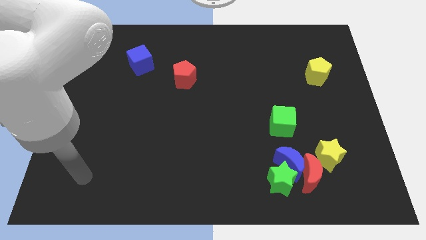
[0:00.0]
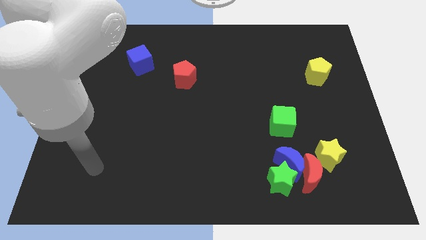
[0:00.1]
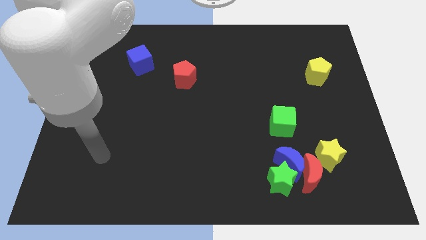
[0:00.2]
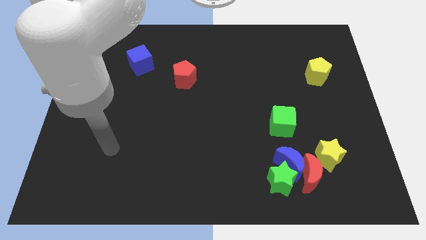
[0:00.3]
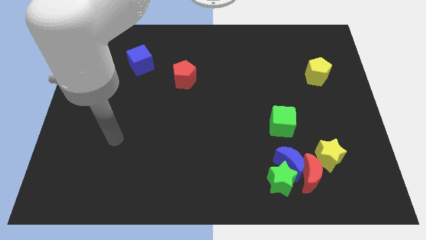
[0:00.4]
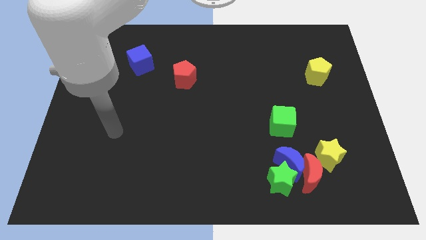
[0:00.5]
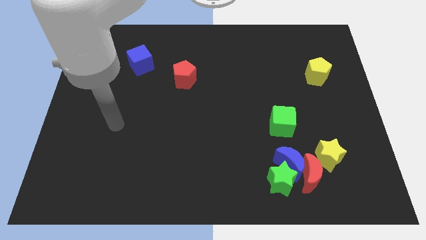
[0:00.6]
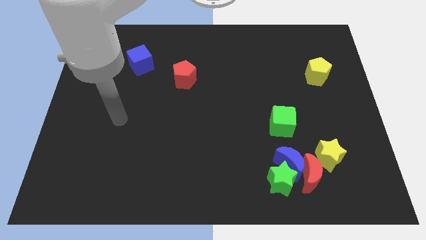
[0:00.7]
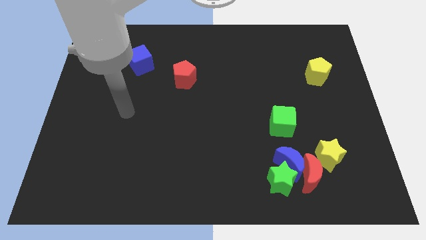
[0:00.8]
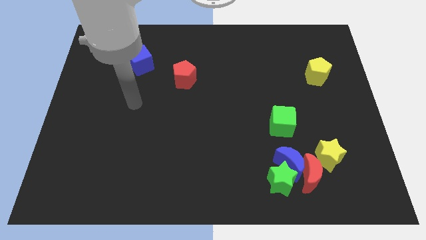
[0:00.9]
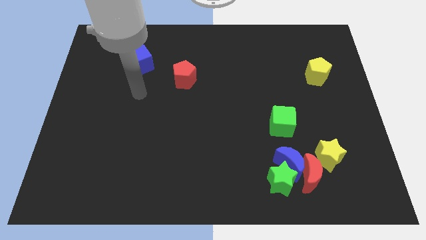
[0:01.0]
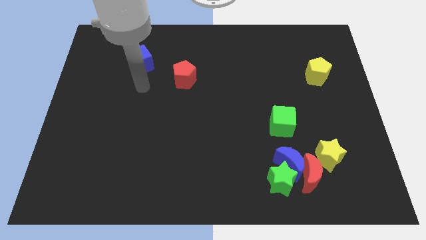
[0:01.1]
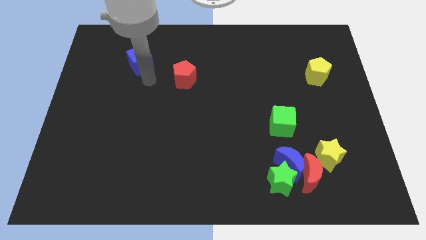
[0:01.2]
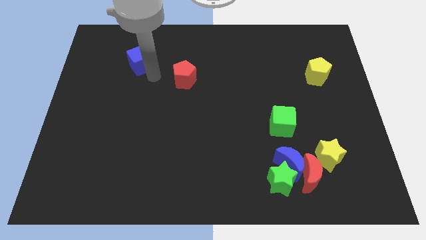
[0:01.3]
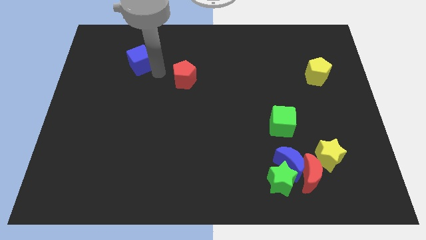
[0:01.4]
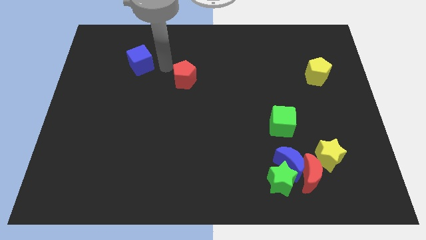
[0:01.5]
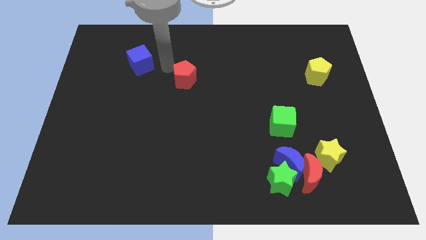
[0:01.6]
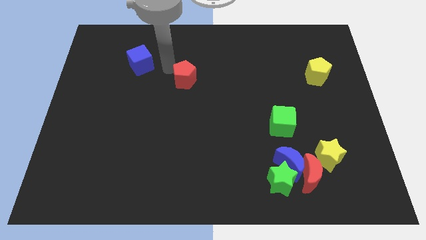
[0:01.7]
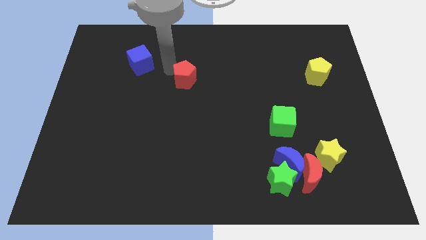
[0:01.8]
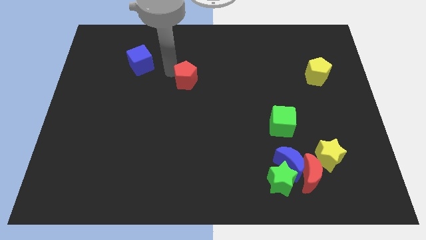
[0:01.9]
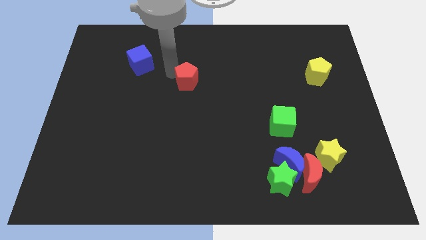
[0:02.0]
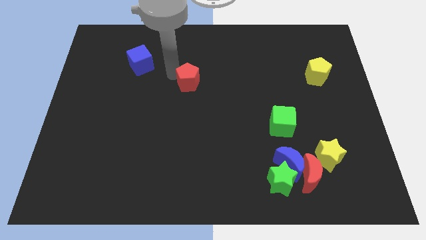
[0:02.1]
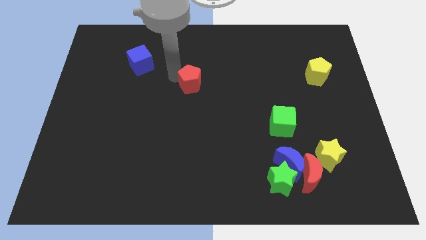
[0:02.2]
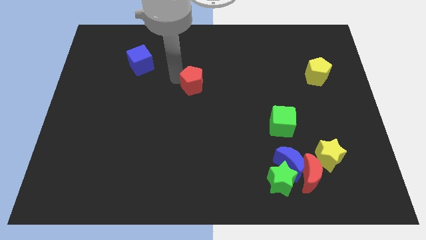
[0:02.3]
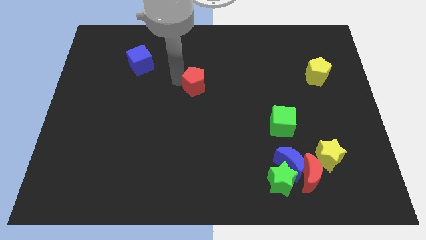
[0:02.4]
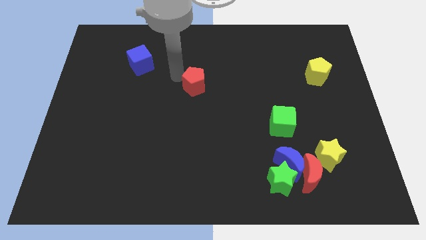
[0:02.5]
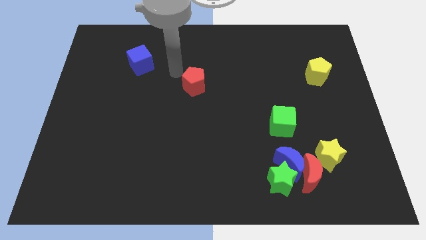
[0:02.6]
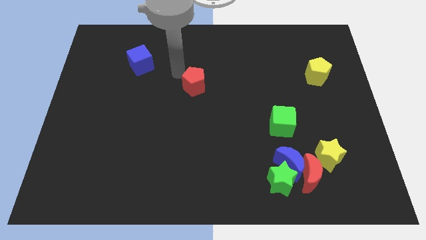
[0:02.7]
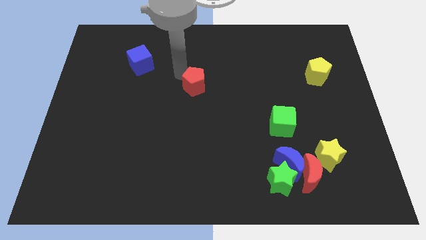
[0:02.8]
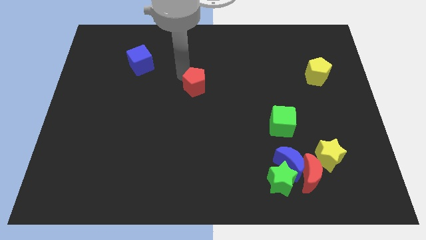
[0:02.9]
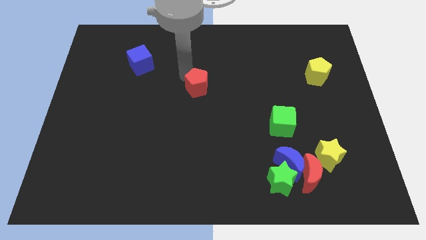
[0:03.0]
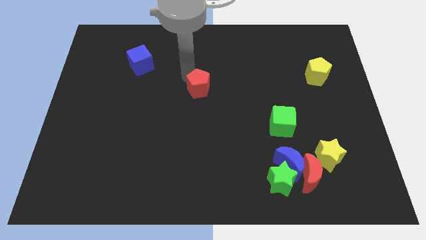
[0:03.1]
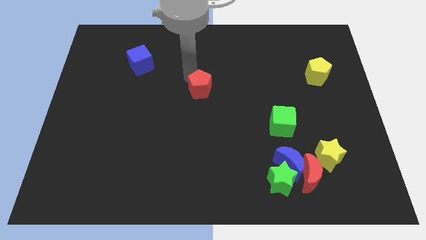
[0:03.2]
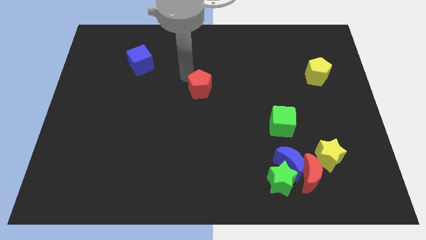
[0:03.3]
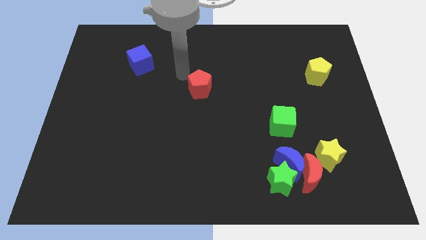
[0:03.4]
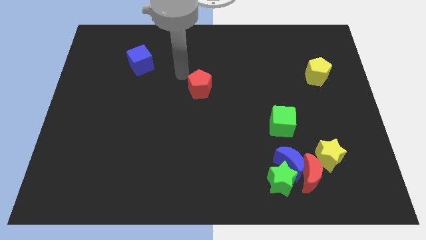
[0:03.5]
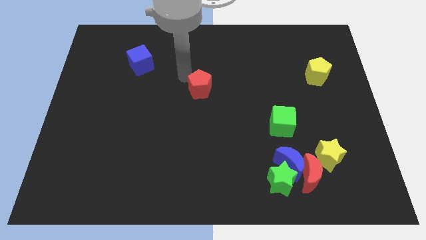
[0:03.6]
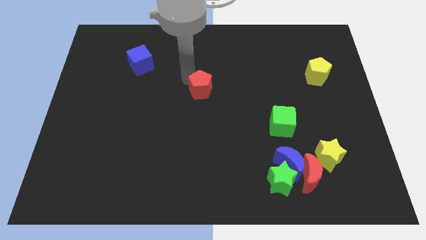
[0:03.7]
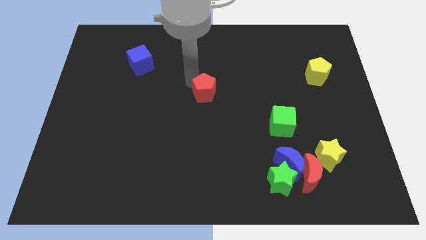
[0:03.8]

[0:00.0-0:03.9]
move the red pentagon down and right a little

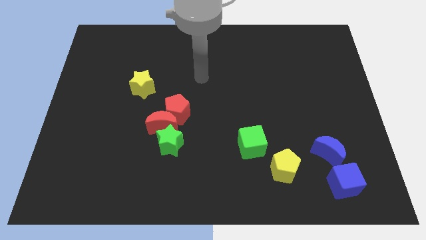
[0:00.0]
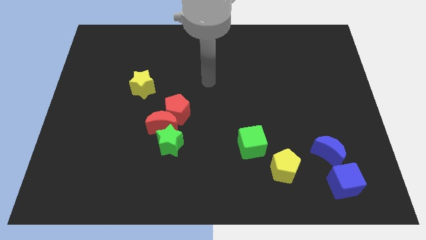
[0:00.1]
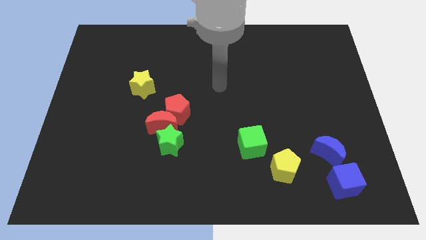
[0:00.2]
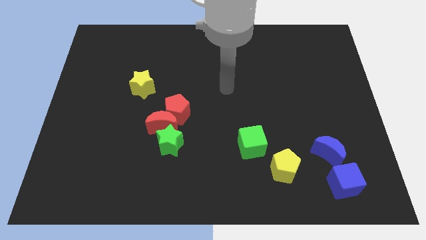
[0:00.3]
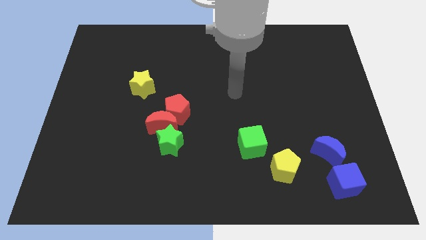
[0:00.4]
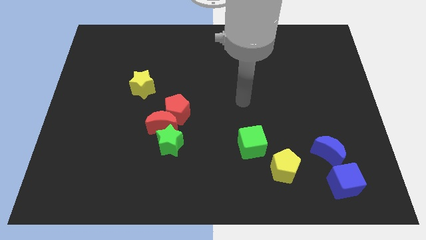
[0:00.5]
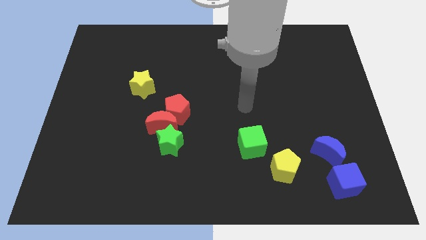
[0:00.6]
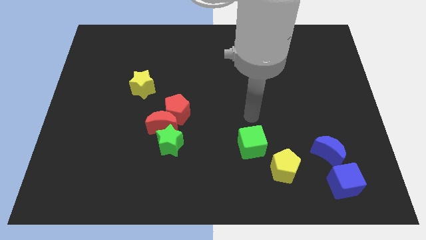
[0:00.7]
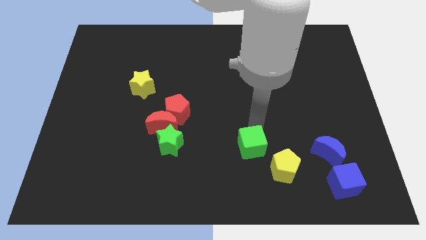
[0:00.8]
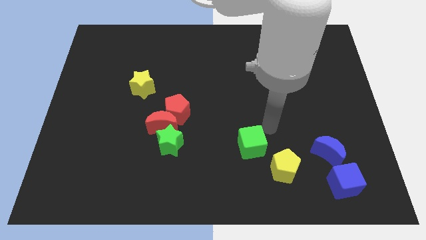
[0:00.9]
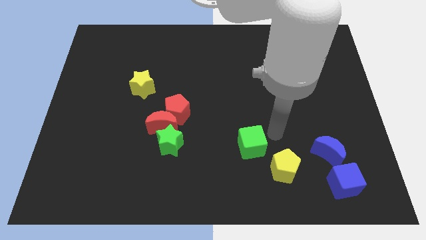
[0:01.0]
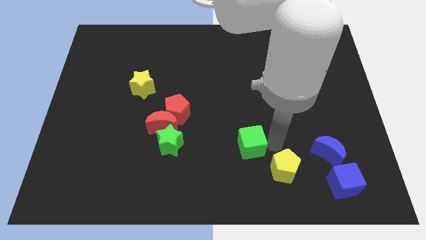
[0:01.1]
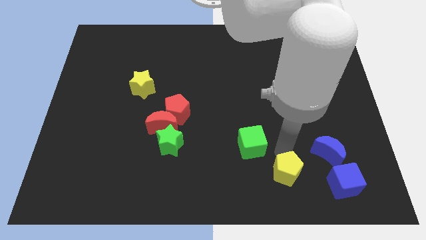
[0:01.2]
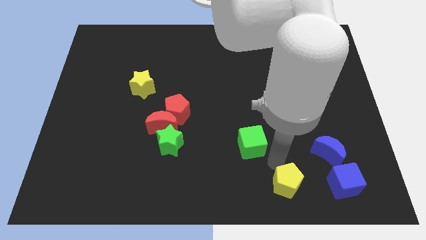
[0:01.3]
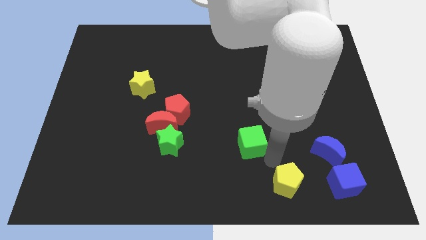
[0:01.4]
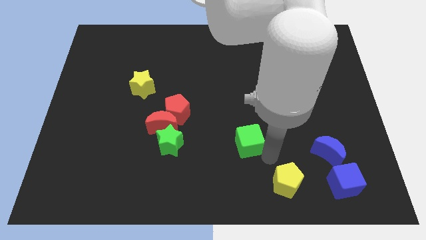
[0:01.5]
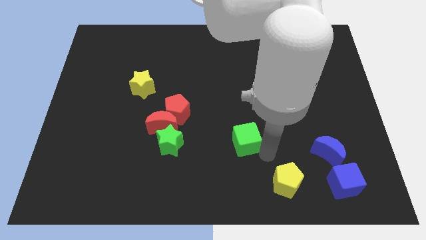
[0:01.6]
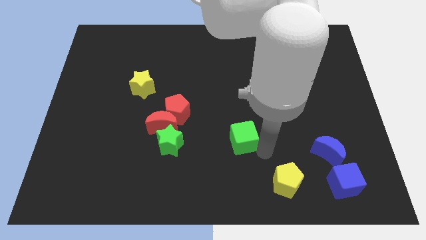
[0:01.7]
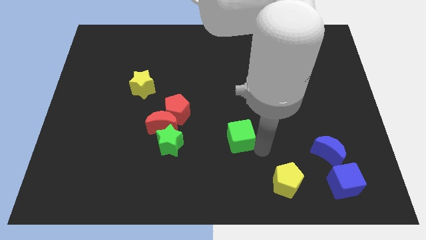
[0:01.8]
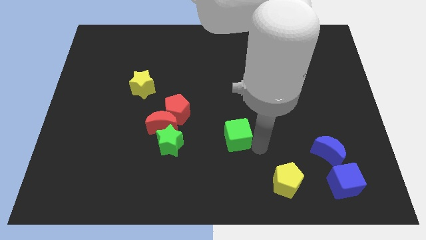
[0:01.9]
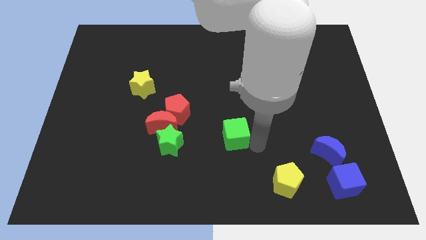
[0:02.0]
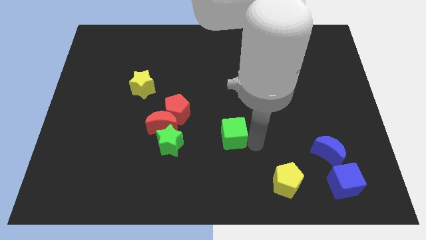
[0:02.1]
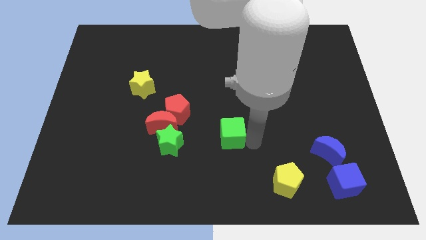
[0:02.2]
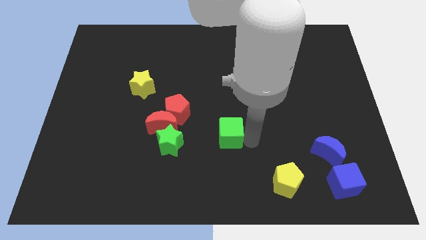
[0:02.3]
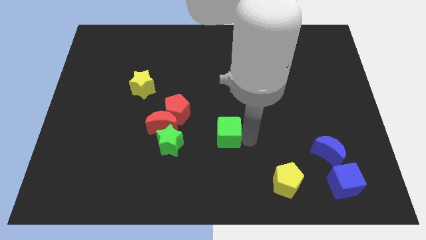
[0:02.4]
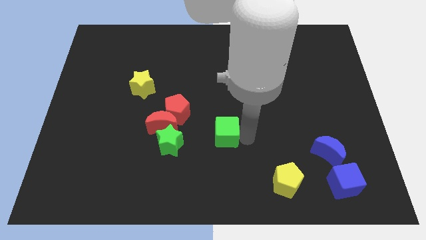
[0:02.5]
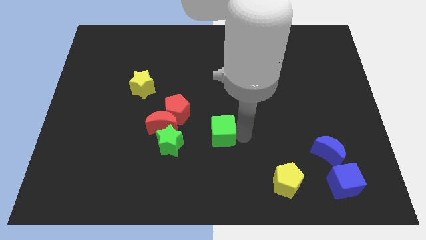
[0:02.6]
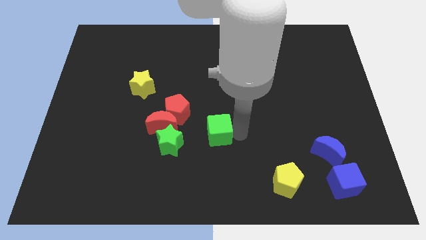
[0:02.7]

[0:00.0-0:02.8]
slide the green cube slightly upwards and to the left diagonally

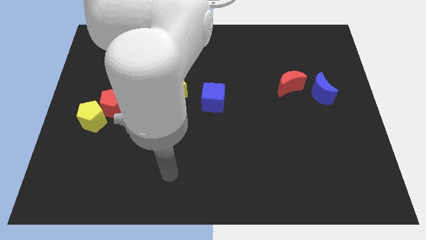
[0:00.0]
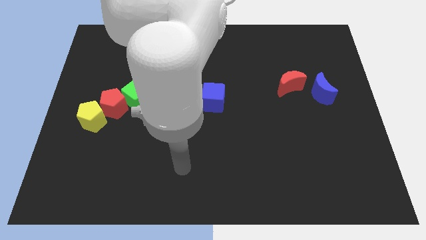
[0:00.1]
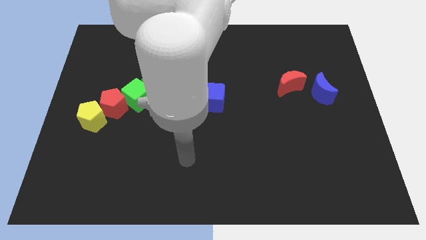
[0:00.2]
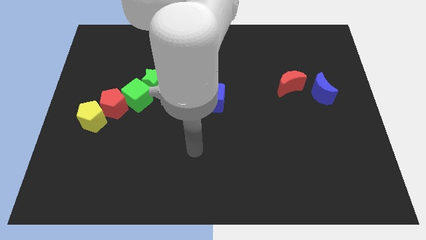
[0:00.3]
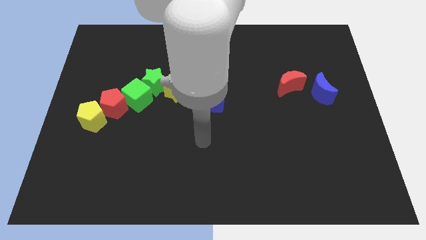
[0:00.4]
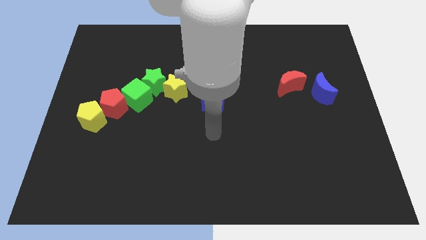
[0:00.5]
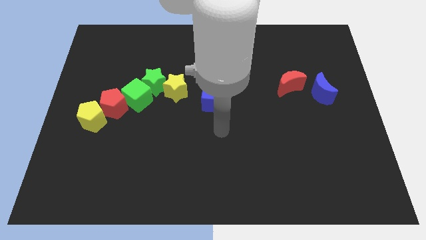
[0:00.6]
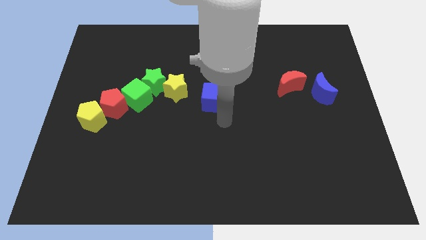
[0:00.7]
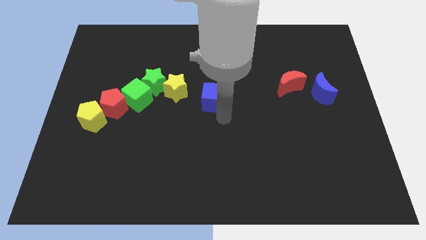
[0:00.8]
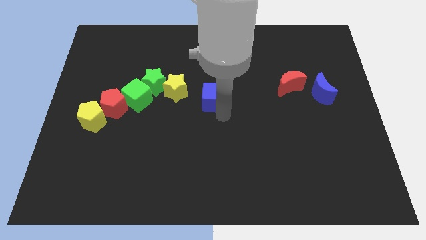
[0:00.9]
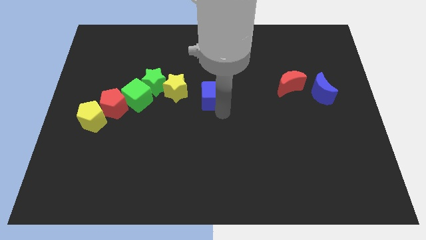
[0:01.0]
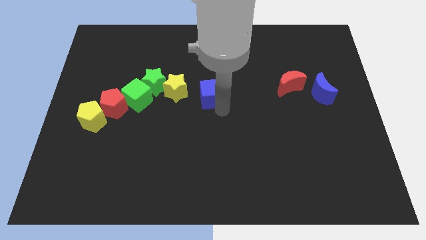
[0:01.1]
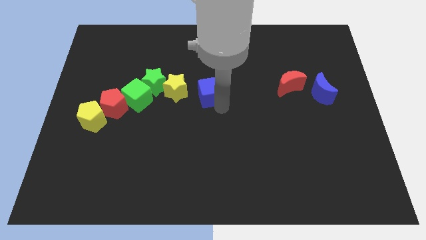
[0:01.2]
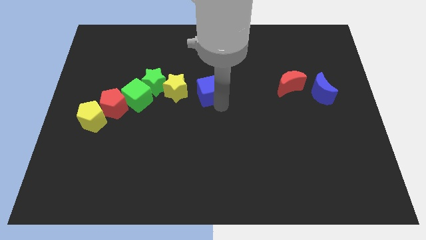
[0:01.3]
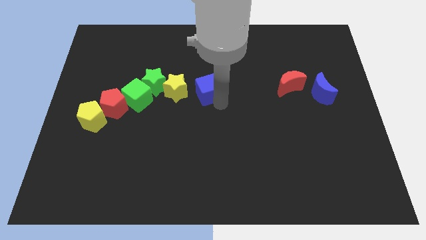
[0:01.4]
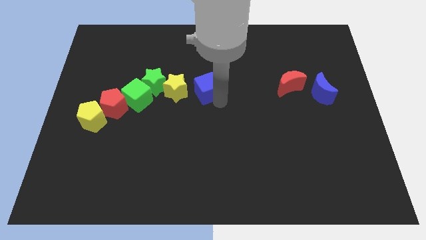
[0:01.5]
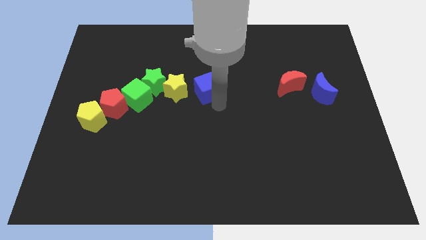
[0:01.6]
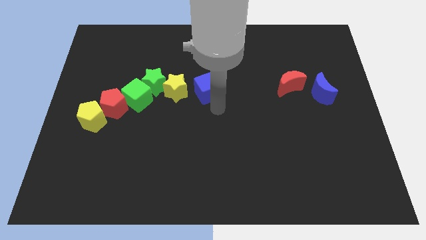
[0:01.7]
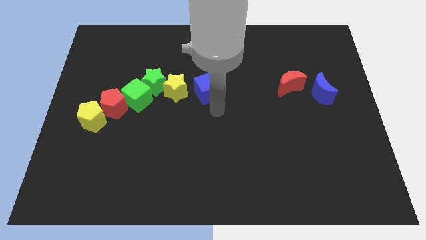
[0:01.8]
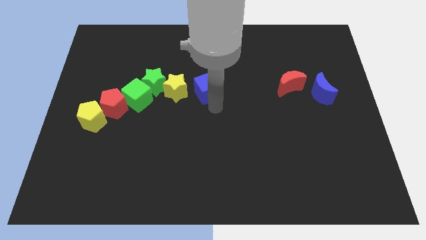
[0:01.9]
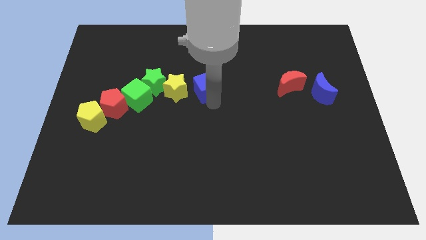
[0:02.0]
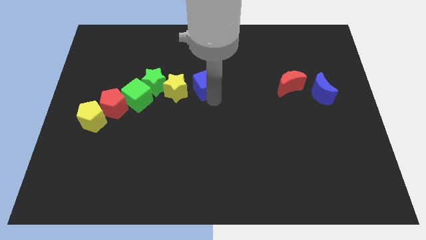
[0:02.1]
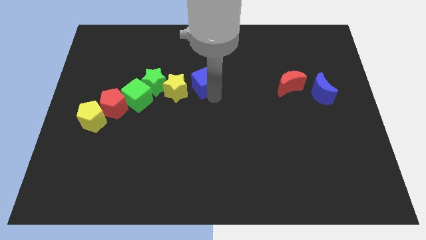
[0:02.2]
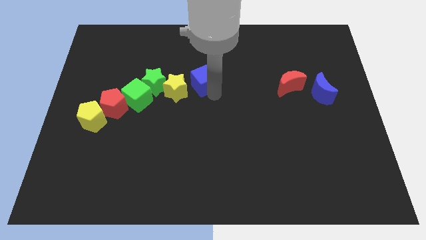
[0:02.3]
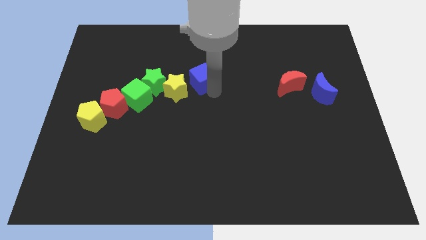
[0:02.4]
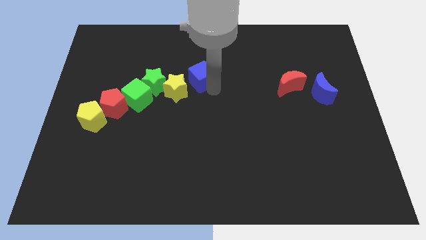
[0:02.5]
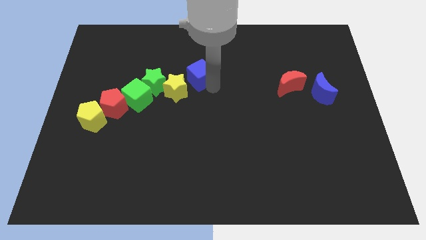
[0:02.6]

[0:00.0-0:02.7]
move the blue cube a little upwards and then left
